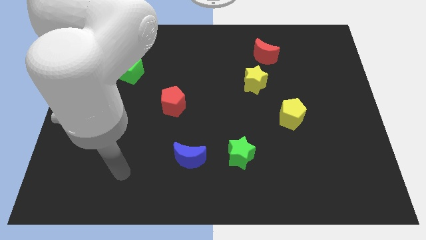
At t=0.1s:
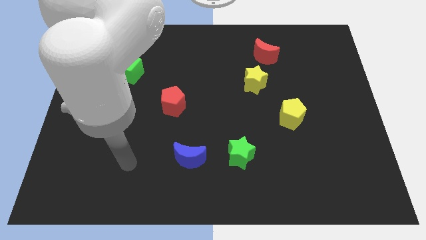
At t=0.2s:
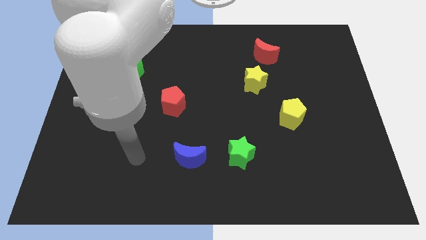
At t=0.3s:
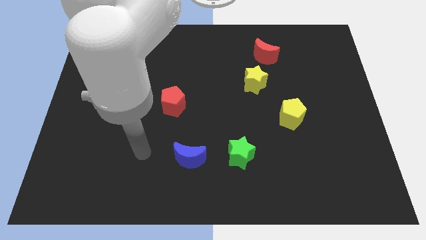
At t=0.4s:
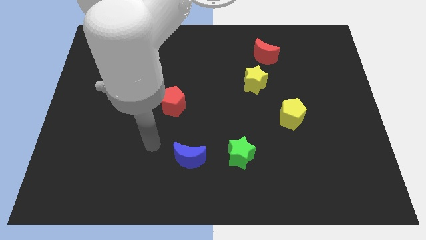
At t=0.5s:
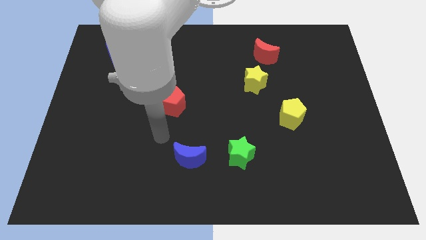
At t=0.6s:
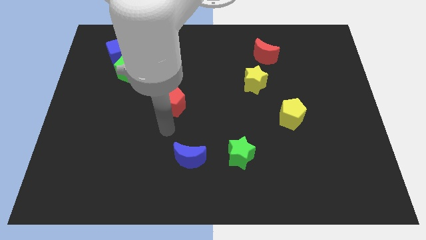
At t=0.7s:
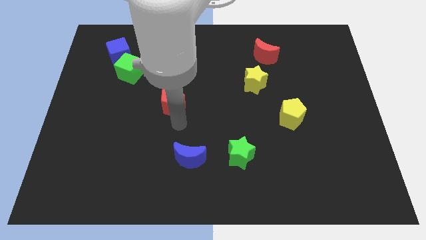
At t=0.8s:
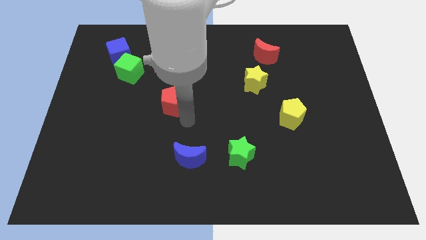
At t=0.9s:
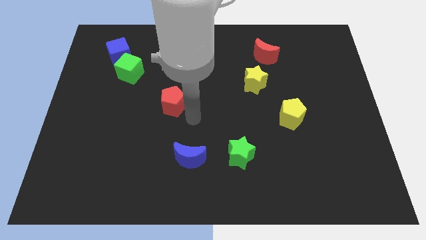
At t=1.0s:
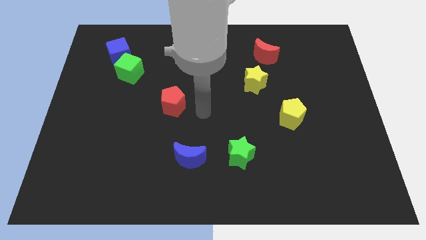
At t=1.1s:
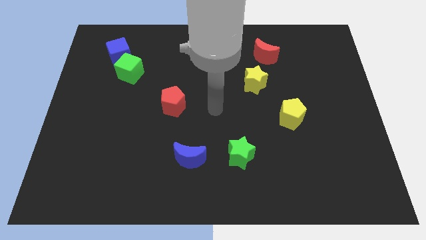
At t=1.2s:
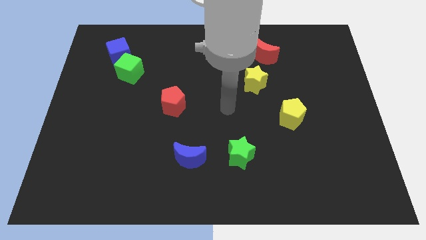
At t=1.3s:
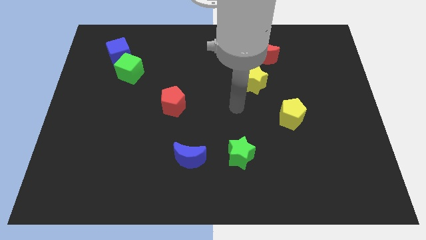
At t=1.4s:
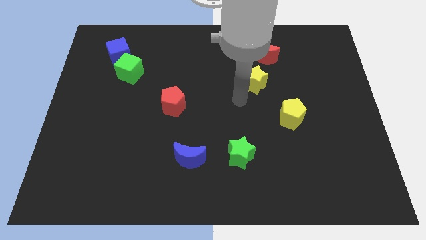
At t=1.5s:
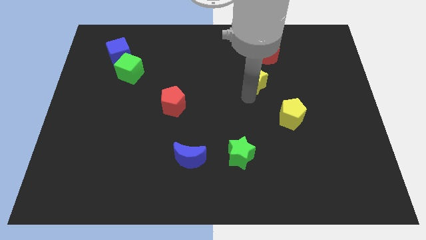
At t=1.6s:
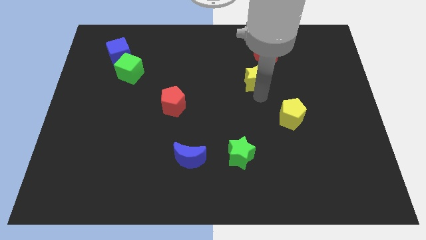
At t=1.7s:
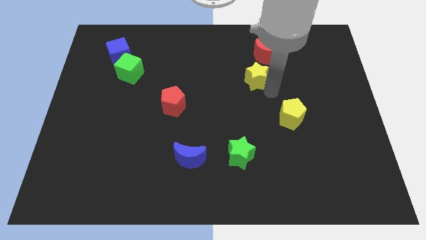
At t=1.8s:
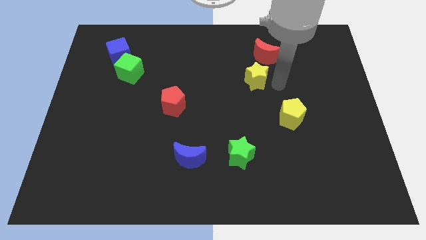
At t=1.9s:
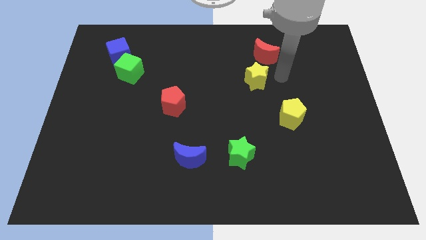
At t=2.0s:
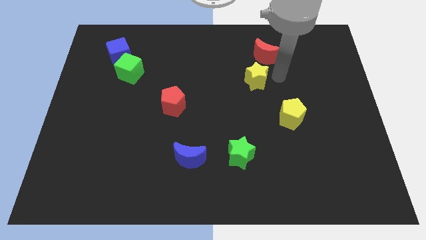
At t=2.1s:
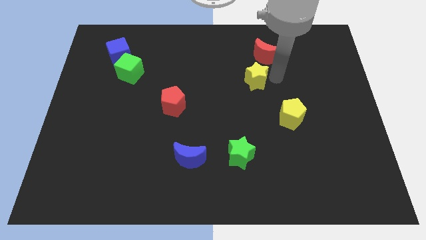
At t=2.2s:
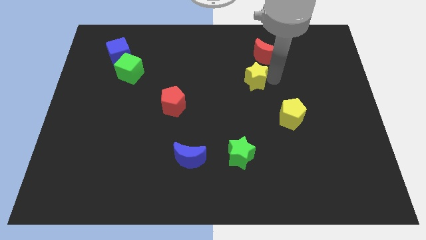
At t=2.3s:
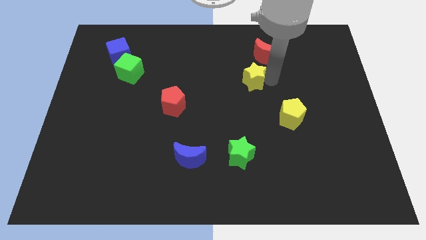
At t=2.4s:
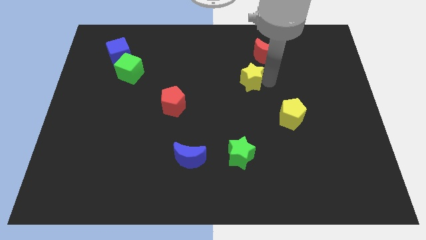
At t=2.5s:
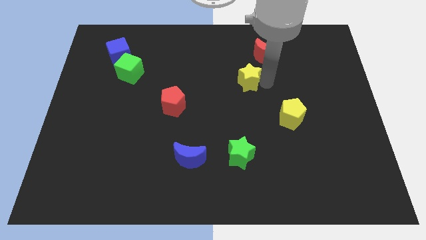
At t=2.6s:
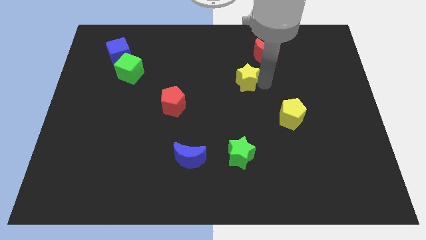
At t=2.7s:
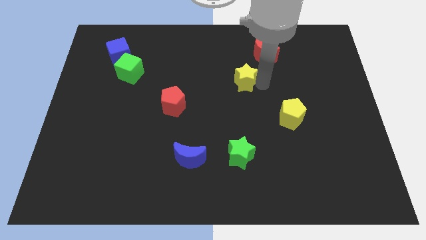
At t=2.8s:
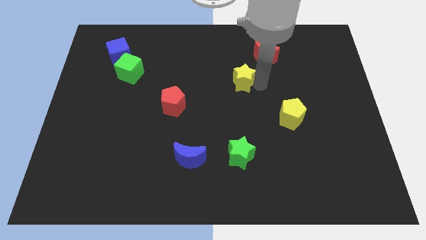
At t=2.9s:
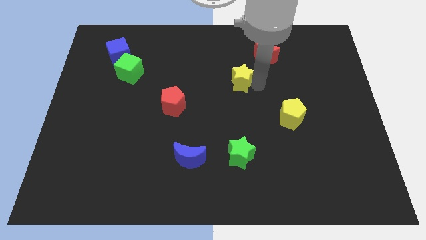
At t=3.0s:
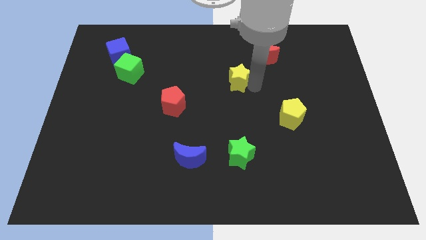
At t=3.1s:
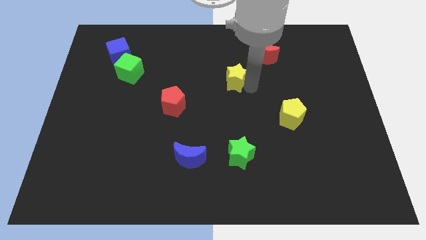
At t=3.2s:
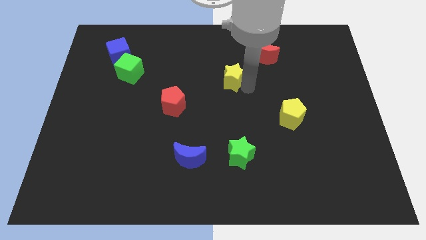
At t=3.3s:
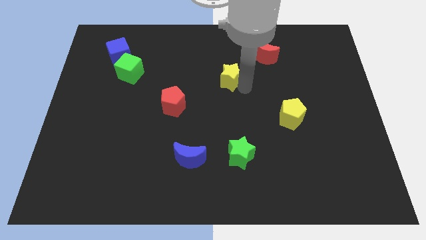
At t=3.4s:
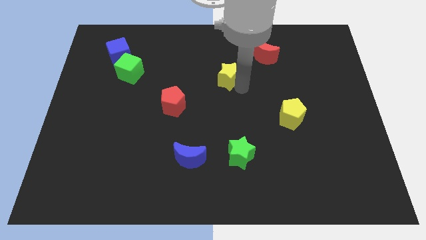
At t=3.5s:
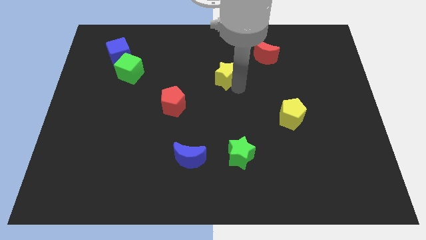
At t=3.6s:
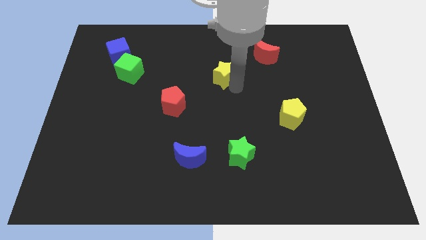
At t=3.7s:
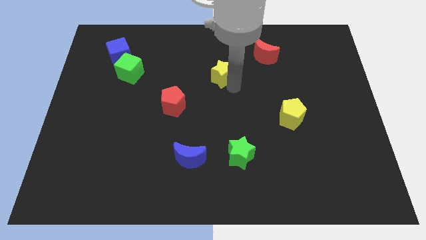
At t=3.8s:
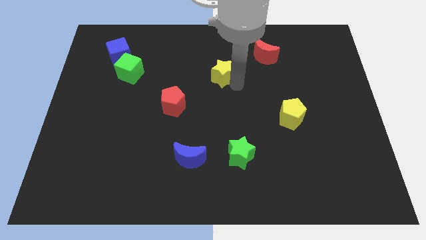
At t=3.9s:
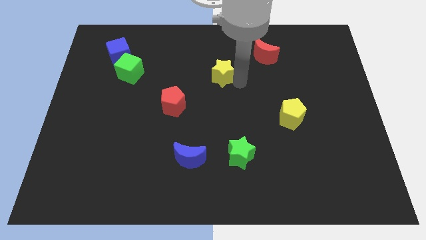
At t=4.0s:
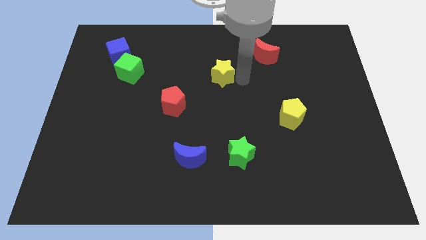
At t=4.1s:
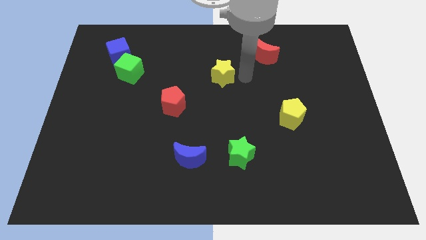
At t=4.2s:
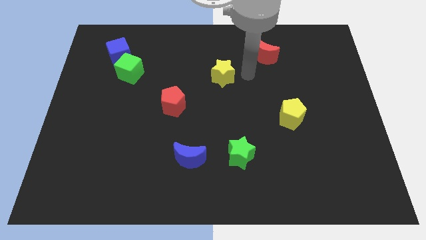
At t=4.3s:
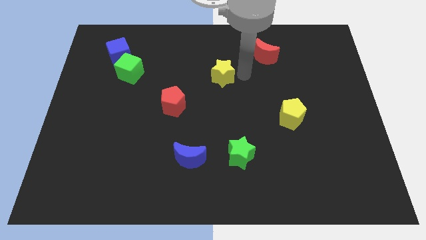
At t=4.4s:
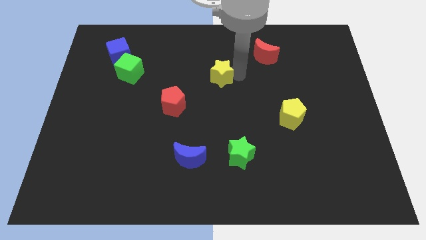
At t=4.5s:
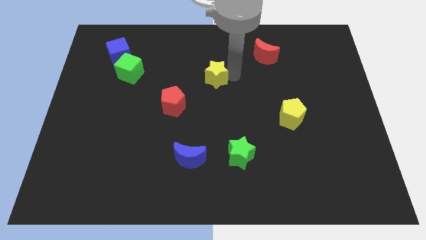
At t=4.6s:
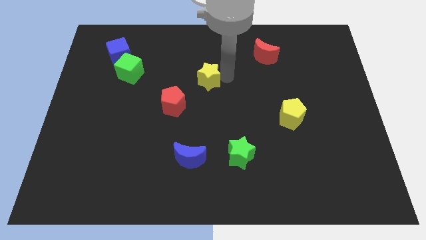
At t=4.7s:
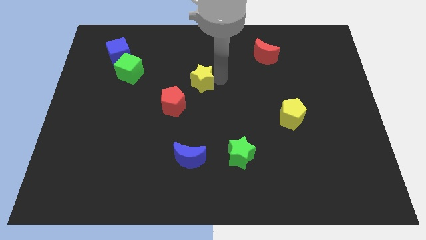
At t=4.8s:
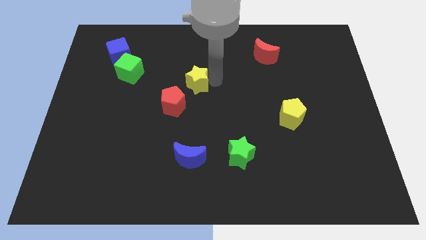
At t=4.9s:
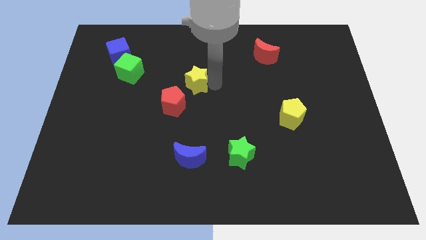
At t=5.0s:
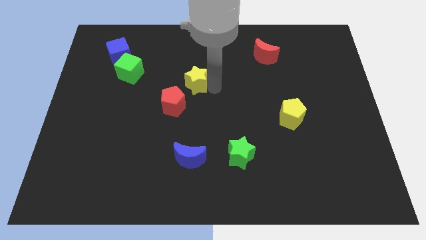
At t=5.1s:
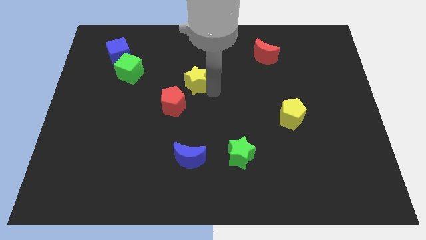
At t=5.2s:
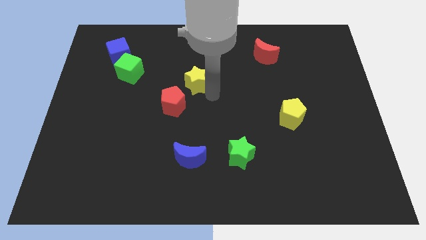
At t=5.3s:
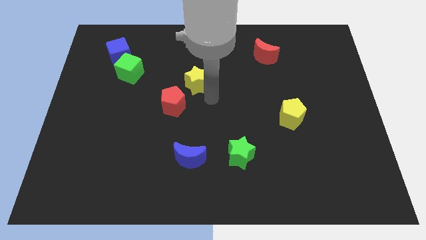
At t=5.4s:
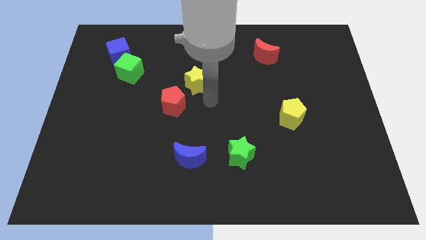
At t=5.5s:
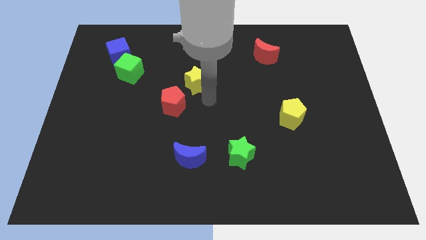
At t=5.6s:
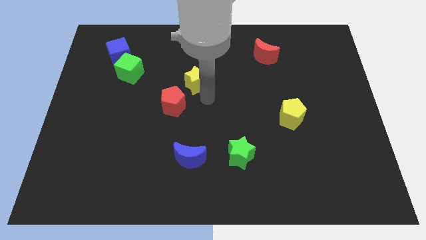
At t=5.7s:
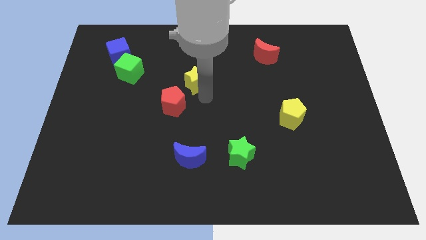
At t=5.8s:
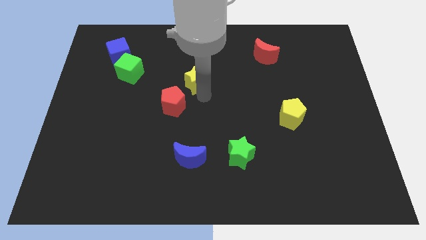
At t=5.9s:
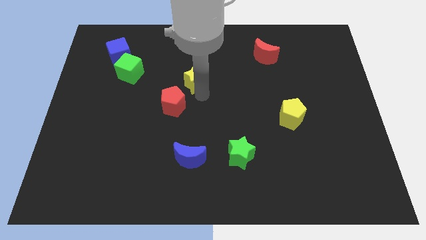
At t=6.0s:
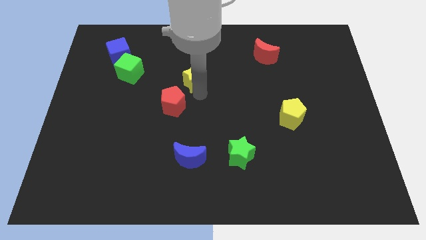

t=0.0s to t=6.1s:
move the yellow star to the top side of the red pentagon
